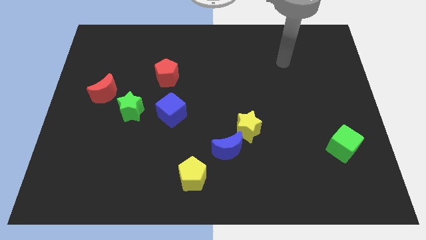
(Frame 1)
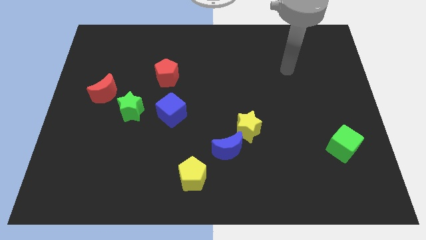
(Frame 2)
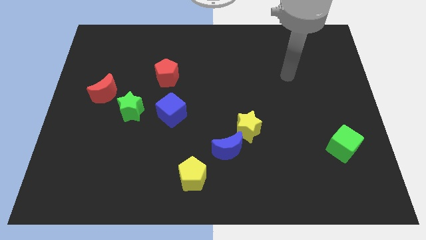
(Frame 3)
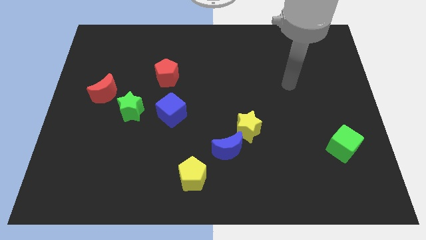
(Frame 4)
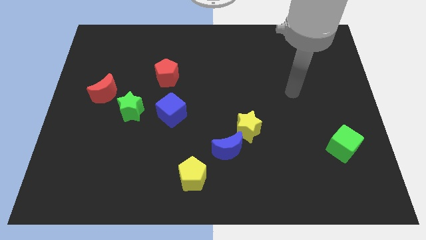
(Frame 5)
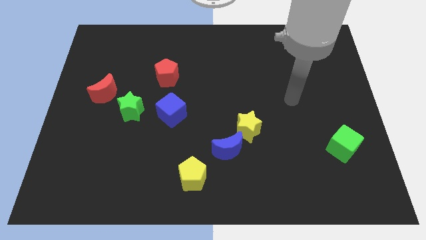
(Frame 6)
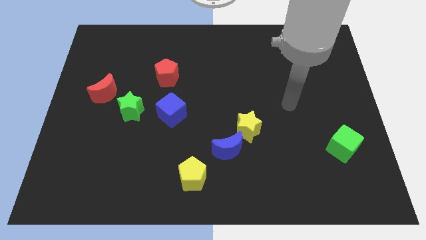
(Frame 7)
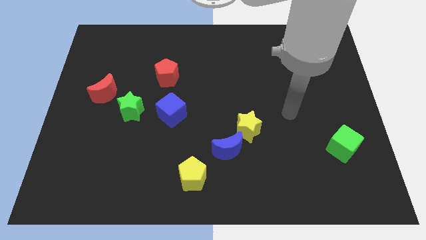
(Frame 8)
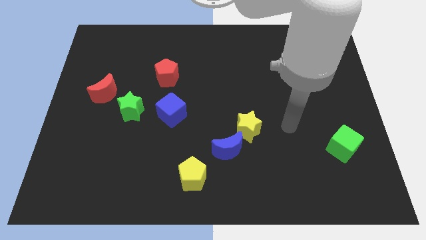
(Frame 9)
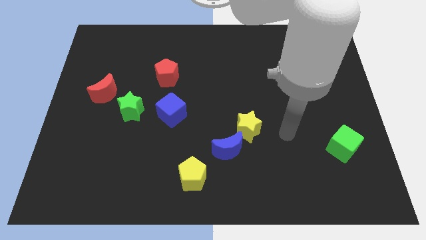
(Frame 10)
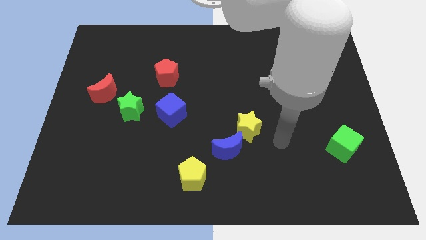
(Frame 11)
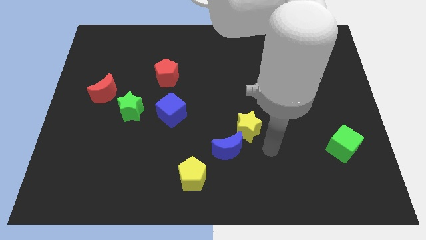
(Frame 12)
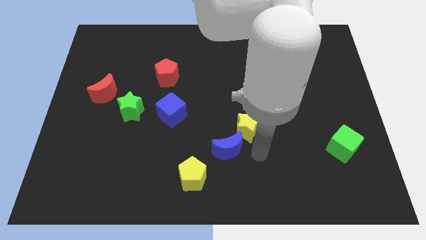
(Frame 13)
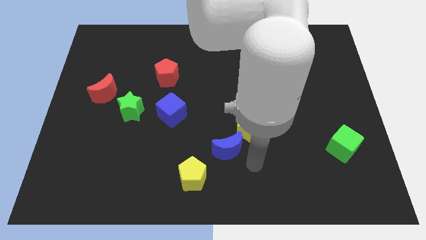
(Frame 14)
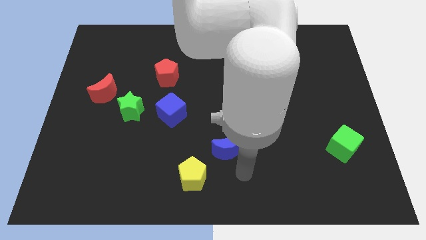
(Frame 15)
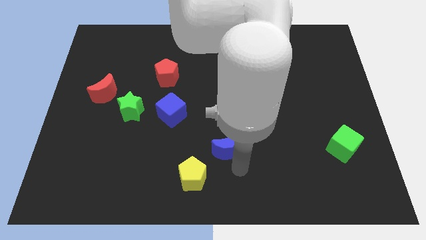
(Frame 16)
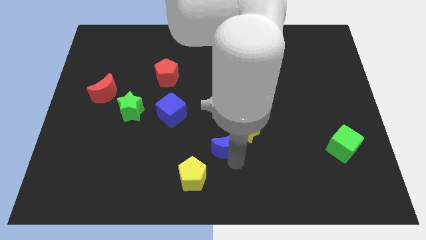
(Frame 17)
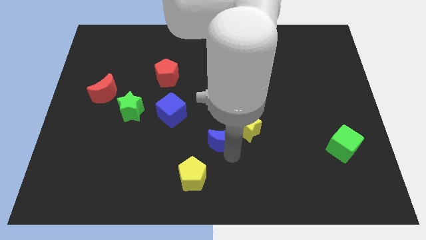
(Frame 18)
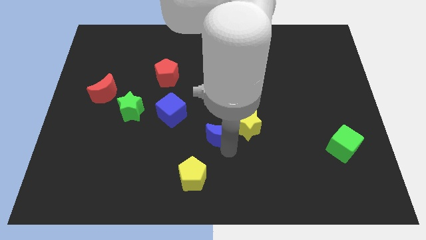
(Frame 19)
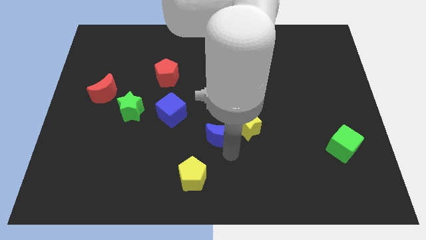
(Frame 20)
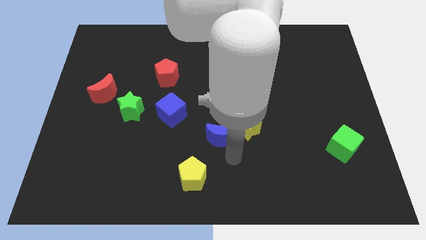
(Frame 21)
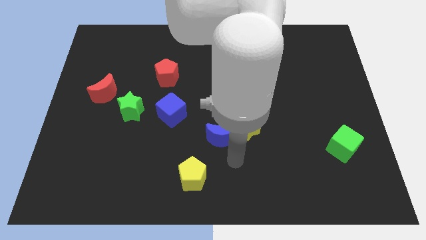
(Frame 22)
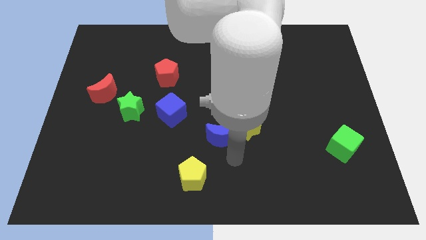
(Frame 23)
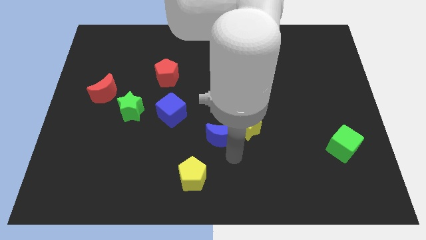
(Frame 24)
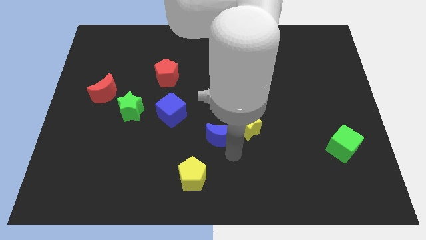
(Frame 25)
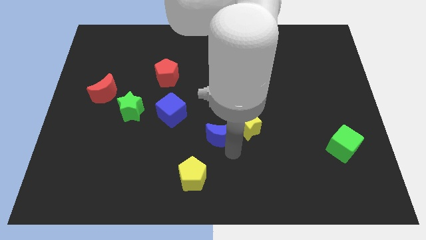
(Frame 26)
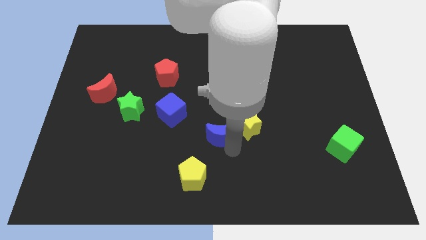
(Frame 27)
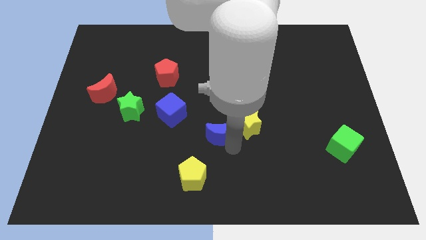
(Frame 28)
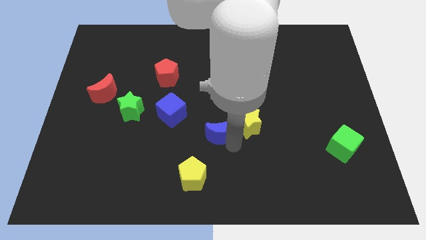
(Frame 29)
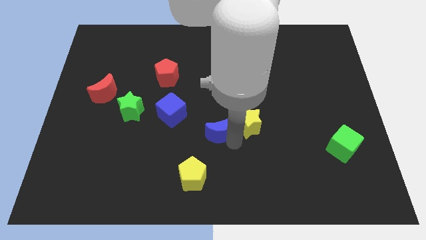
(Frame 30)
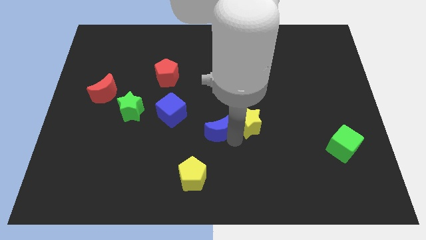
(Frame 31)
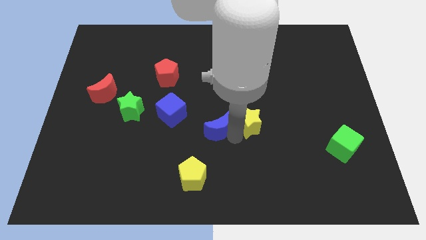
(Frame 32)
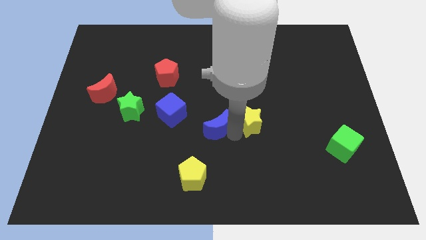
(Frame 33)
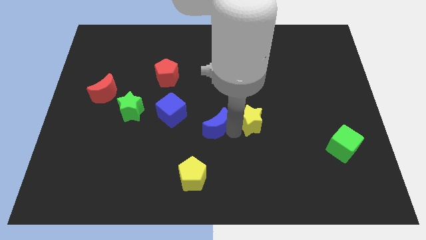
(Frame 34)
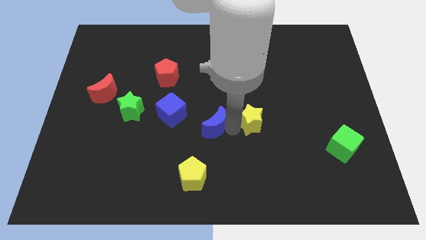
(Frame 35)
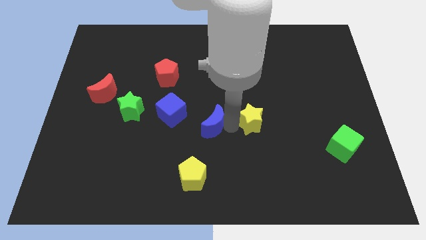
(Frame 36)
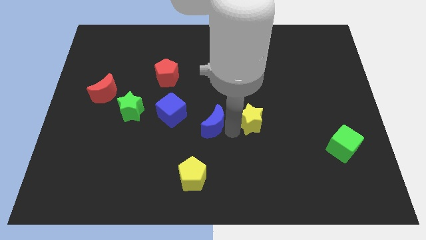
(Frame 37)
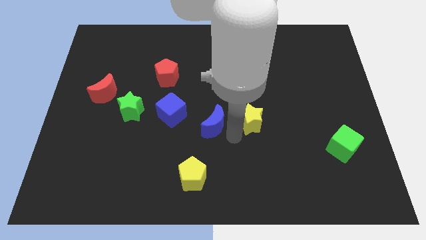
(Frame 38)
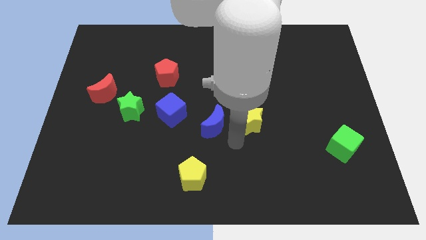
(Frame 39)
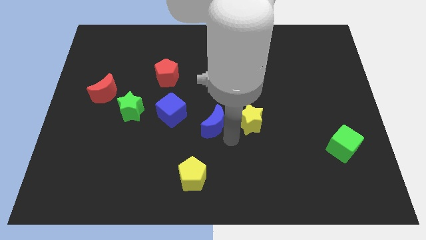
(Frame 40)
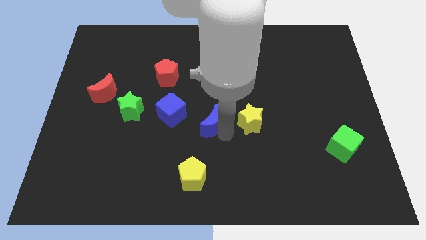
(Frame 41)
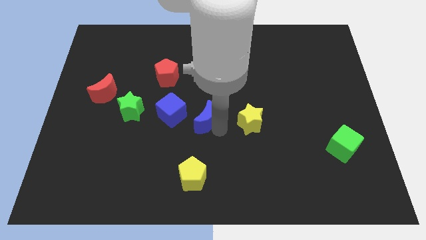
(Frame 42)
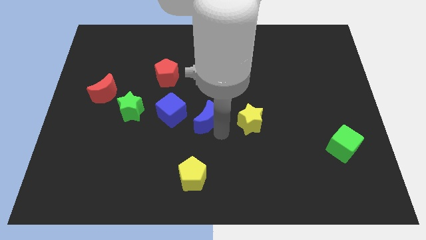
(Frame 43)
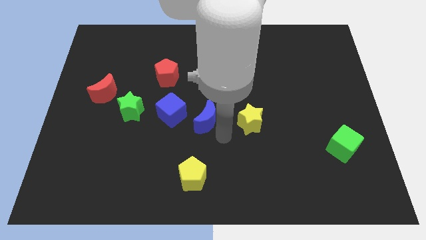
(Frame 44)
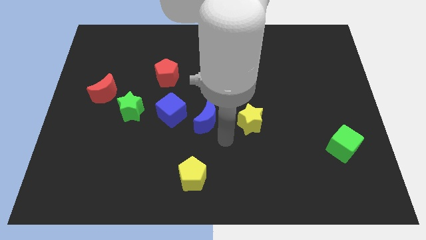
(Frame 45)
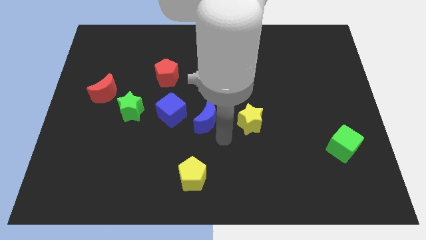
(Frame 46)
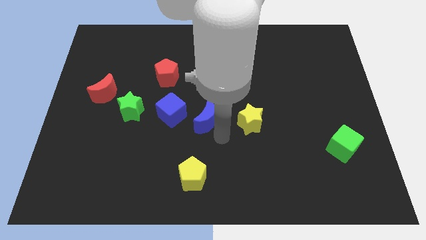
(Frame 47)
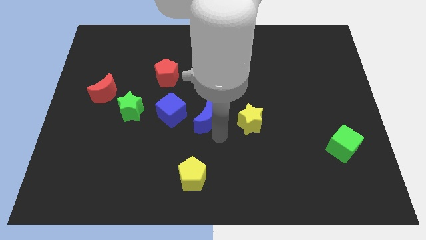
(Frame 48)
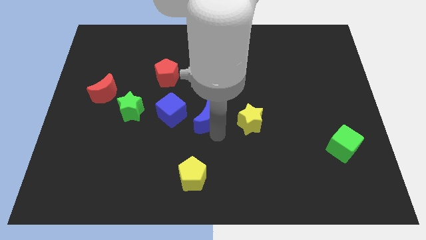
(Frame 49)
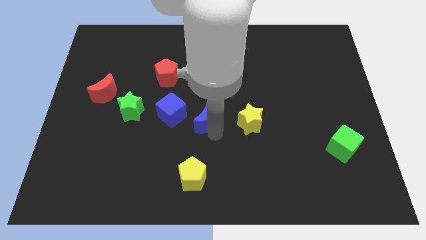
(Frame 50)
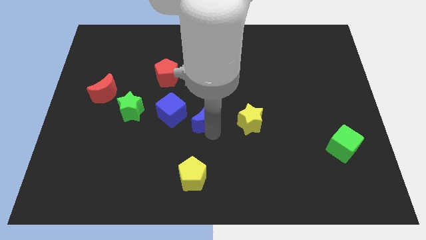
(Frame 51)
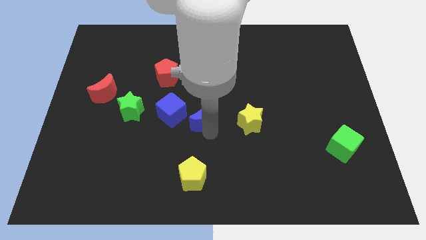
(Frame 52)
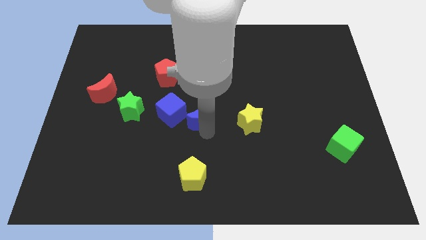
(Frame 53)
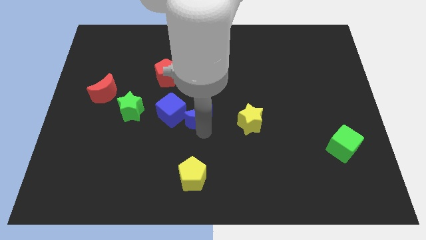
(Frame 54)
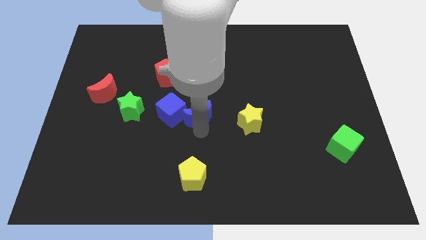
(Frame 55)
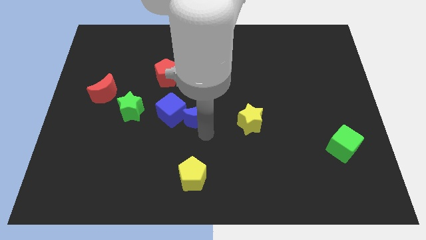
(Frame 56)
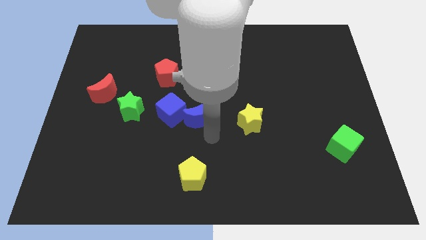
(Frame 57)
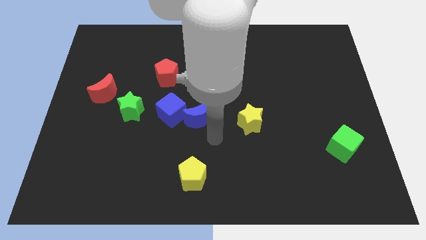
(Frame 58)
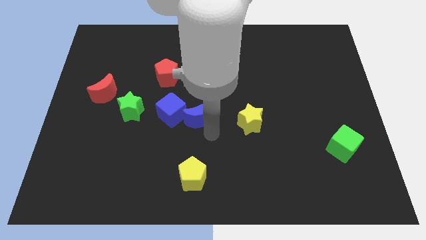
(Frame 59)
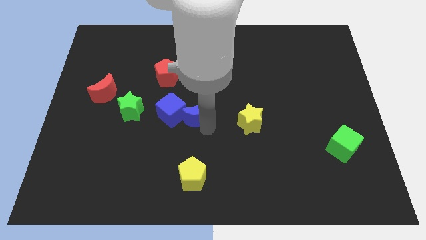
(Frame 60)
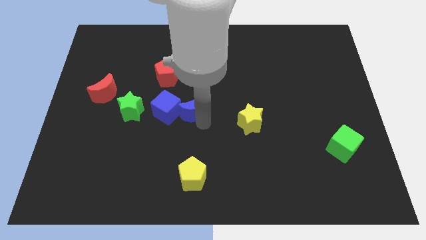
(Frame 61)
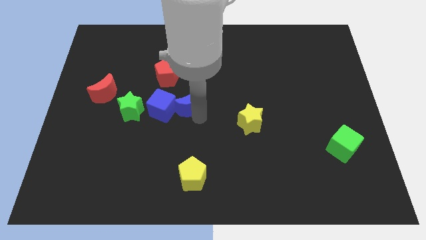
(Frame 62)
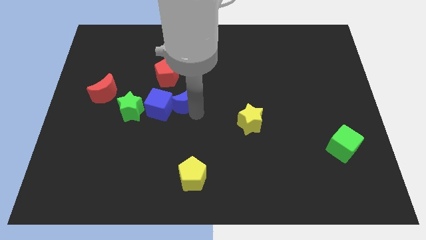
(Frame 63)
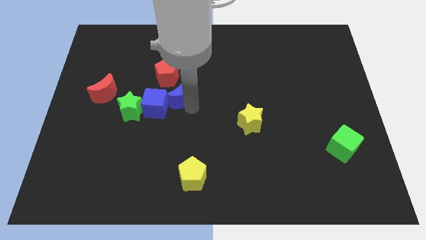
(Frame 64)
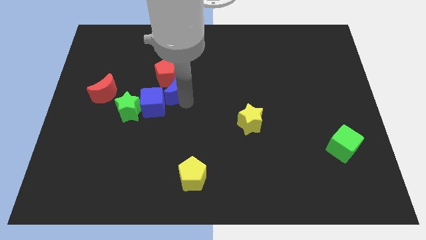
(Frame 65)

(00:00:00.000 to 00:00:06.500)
move the blue moon towards the red pentagon
